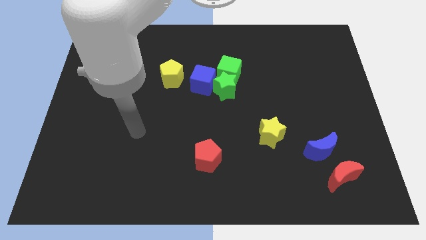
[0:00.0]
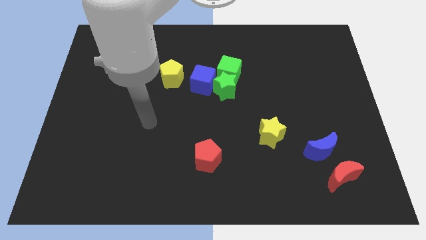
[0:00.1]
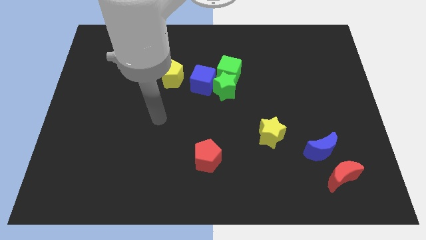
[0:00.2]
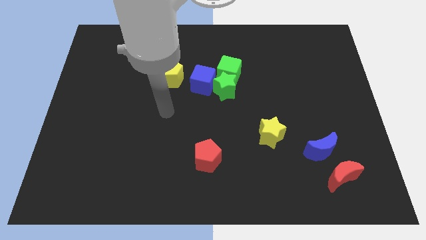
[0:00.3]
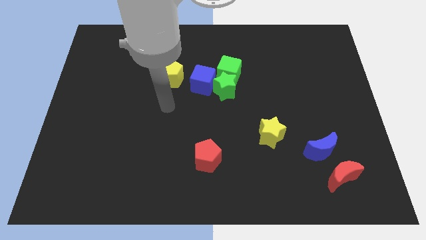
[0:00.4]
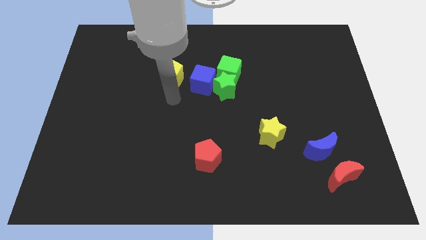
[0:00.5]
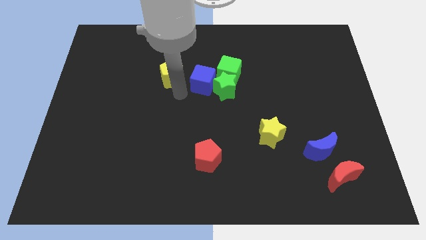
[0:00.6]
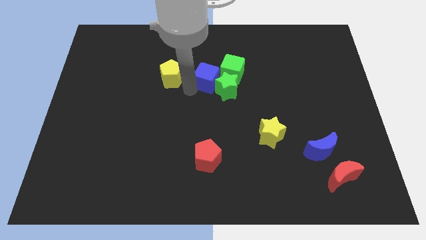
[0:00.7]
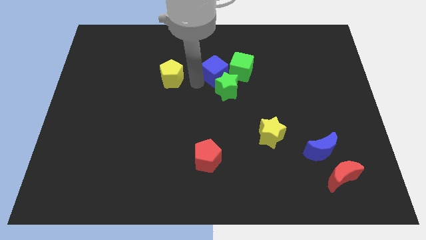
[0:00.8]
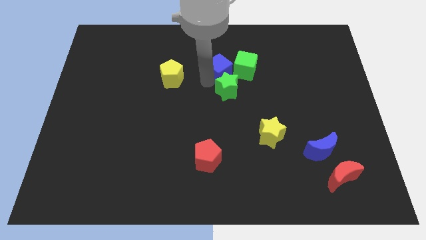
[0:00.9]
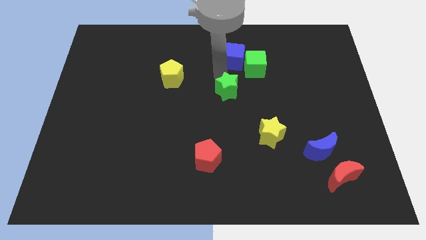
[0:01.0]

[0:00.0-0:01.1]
pull the green star apart from the green cube and blue cube

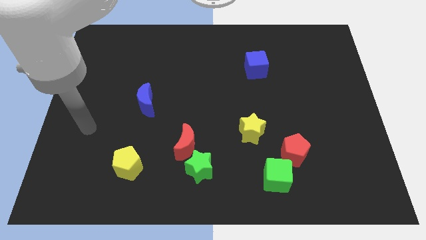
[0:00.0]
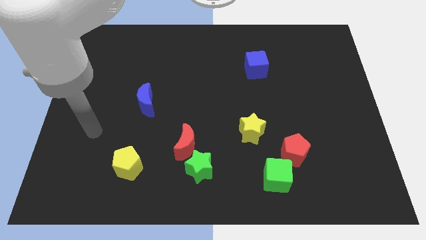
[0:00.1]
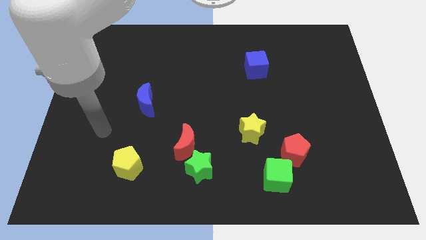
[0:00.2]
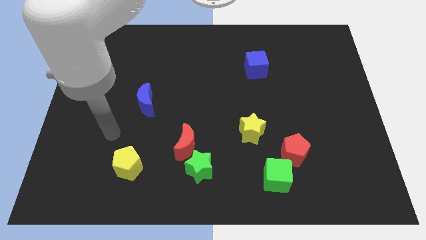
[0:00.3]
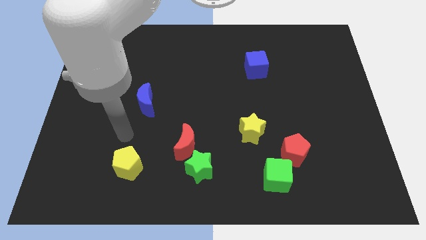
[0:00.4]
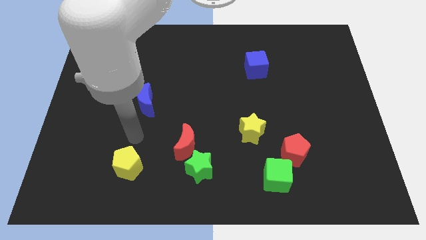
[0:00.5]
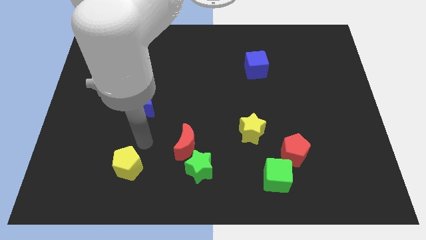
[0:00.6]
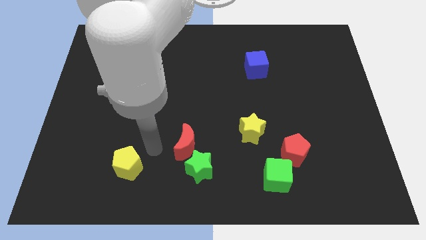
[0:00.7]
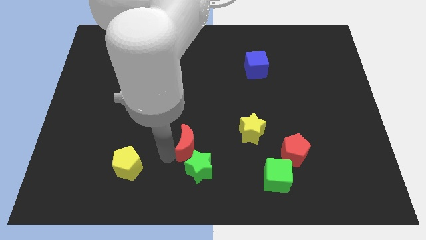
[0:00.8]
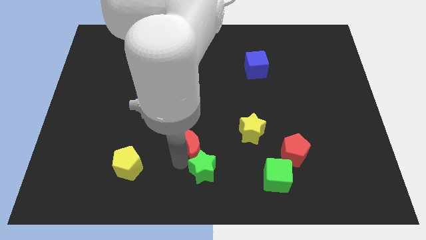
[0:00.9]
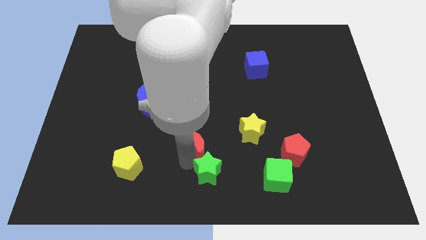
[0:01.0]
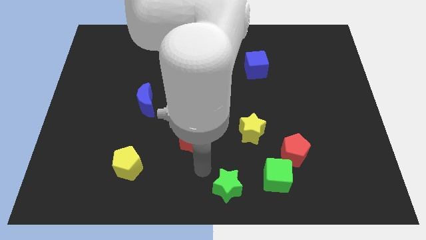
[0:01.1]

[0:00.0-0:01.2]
move the red moon away from the green star

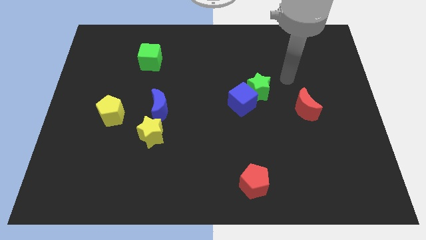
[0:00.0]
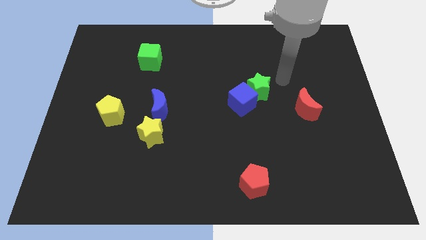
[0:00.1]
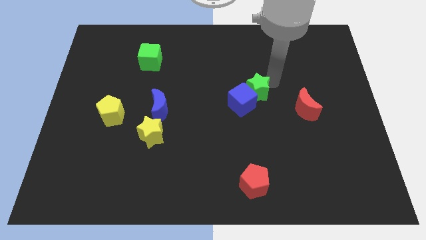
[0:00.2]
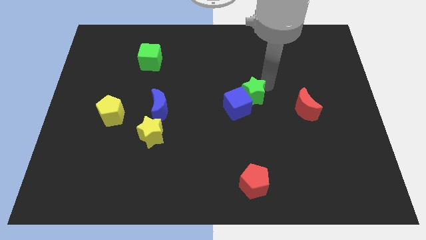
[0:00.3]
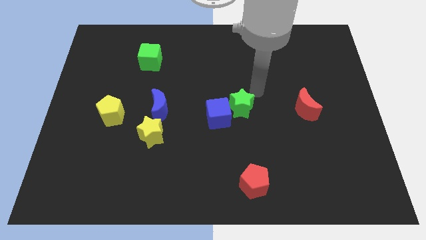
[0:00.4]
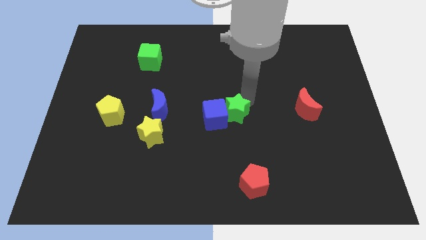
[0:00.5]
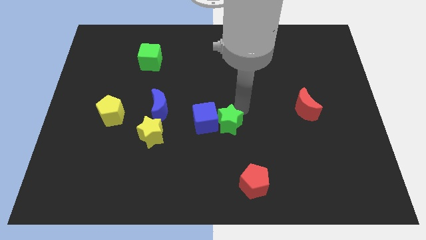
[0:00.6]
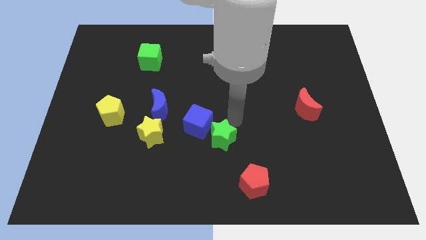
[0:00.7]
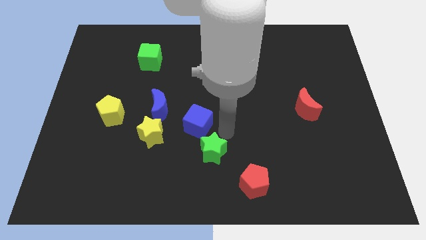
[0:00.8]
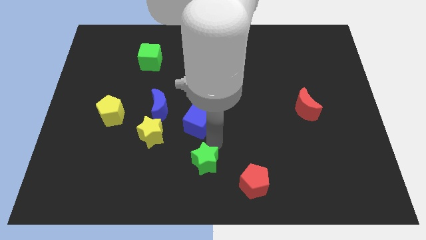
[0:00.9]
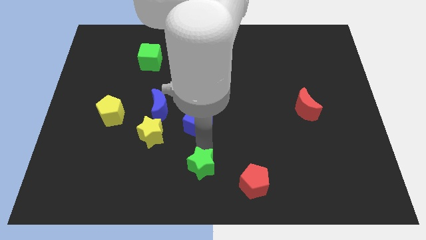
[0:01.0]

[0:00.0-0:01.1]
pull the blue cube apart from the green star

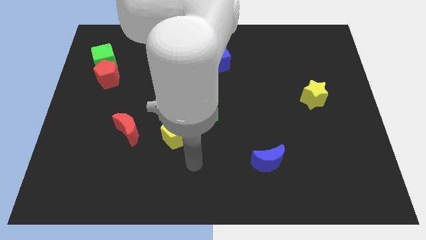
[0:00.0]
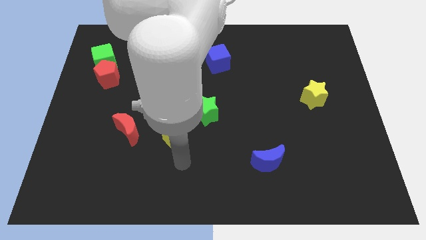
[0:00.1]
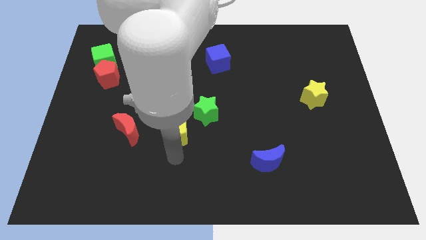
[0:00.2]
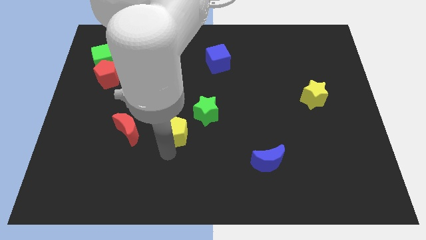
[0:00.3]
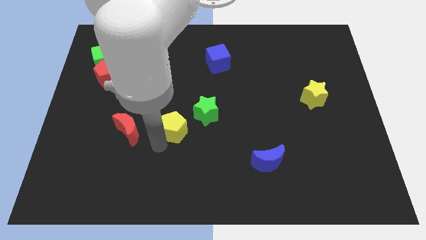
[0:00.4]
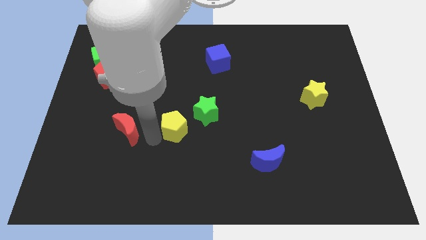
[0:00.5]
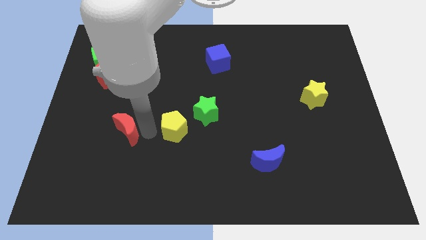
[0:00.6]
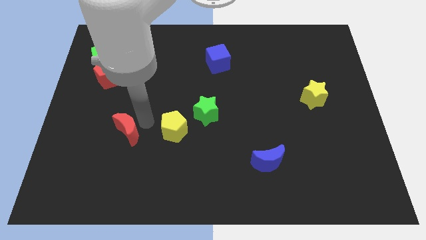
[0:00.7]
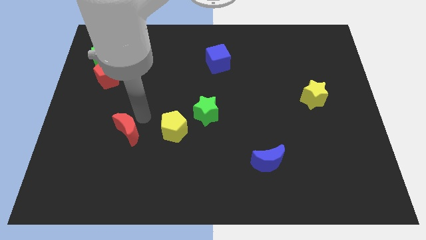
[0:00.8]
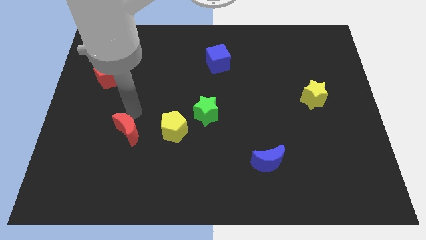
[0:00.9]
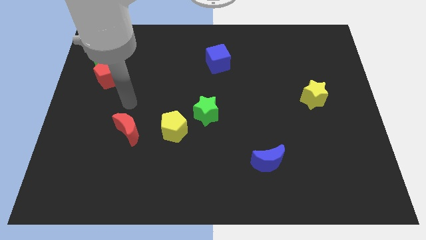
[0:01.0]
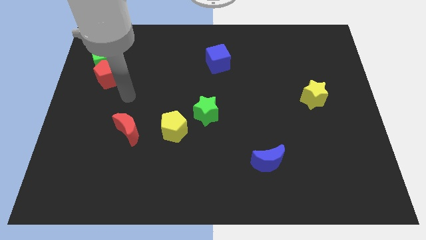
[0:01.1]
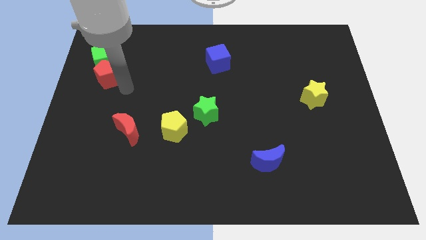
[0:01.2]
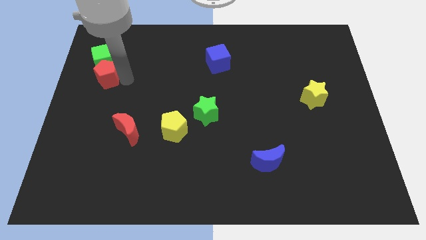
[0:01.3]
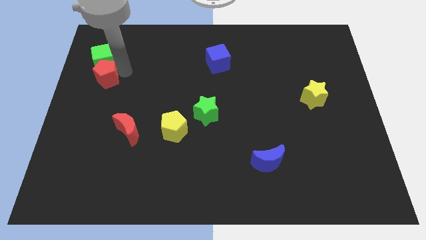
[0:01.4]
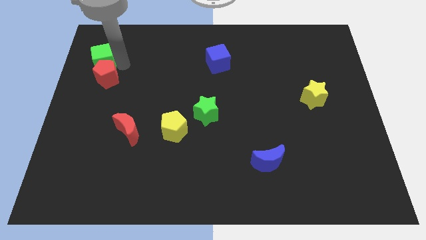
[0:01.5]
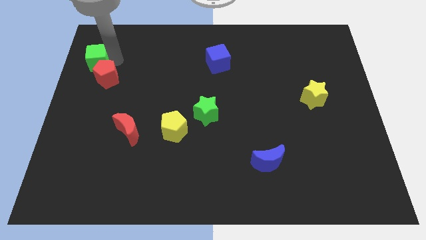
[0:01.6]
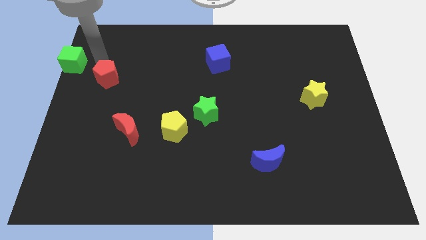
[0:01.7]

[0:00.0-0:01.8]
pull the red pentagon apart from the green cube

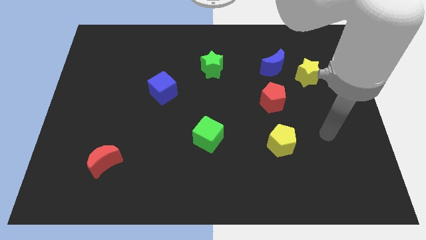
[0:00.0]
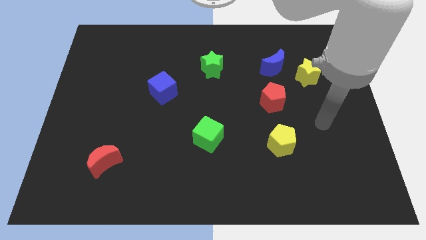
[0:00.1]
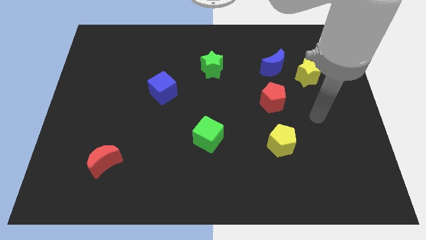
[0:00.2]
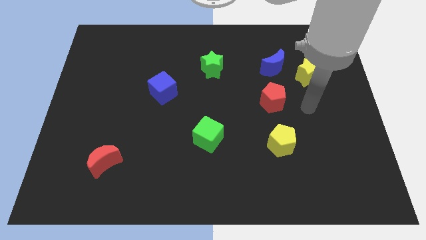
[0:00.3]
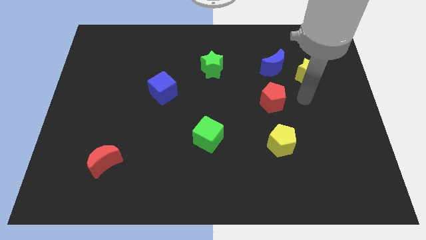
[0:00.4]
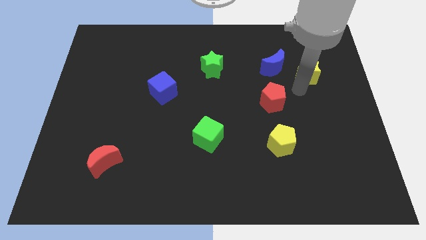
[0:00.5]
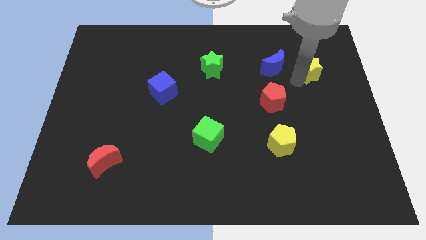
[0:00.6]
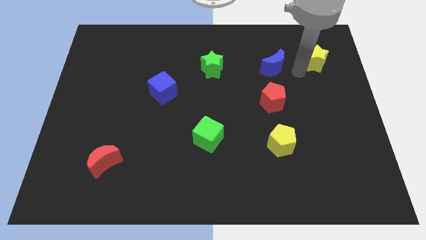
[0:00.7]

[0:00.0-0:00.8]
move the blue moon away from the yellow star

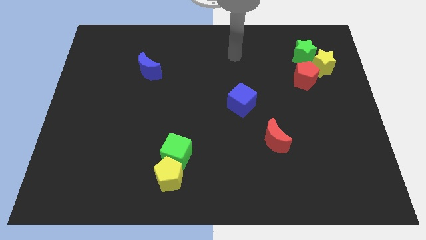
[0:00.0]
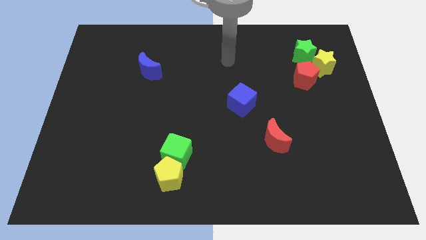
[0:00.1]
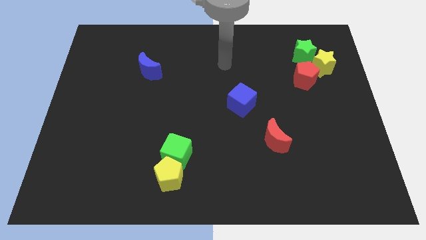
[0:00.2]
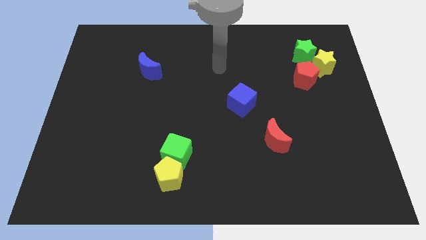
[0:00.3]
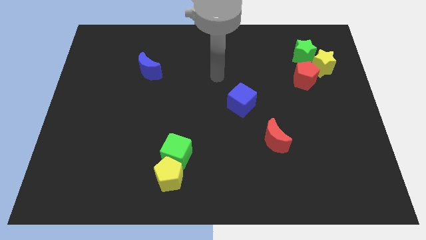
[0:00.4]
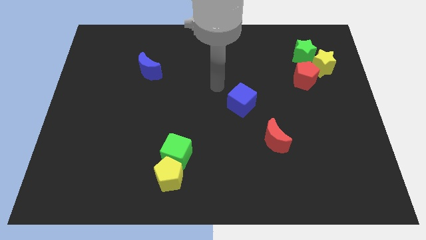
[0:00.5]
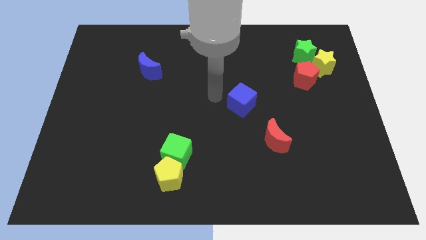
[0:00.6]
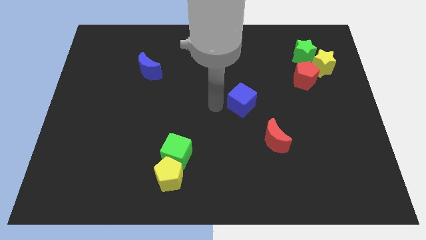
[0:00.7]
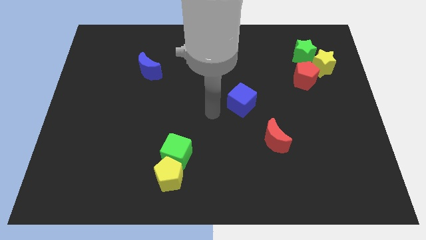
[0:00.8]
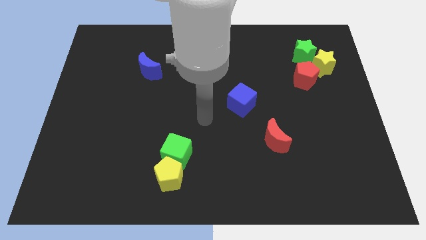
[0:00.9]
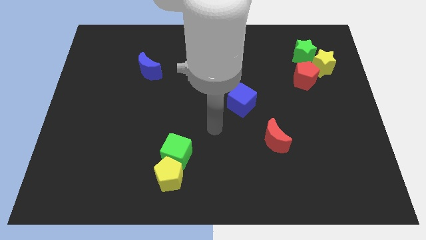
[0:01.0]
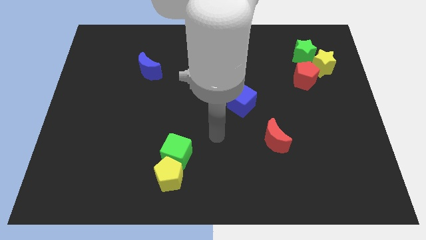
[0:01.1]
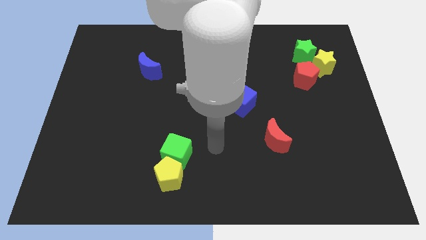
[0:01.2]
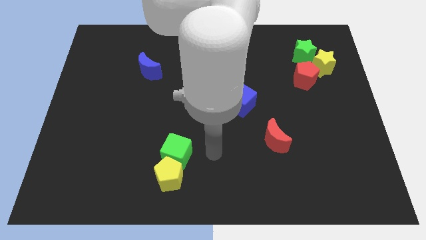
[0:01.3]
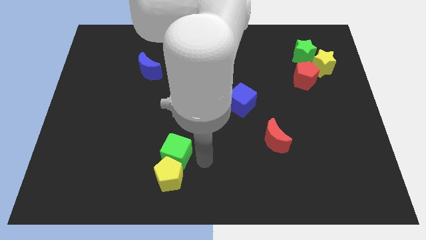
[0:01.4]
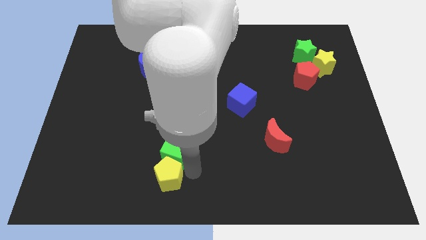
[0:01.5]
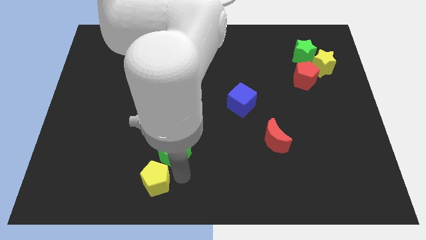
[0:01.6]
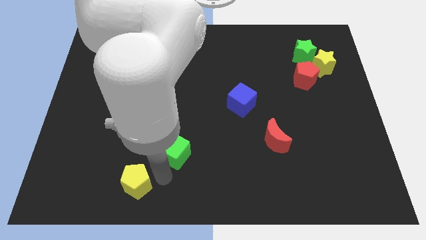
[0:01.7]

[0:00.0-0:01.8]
separate the green cube from the yellow pentagon

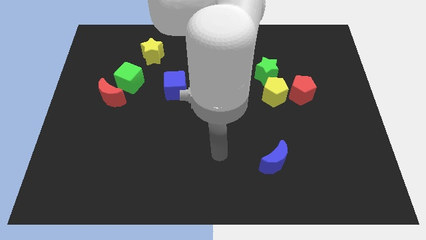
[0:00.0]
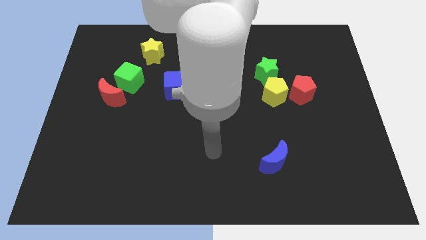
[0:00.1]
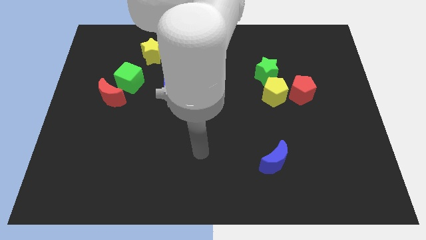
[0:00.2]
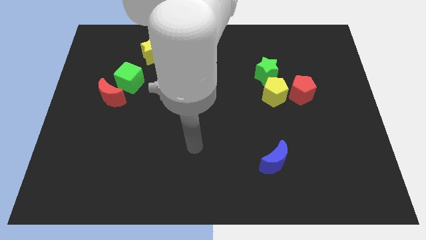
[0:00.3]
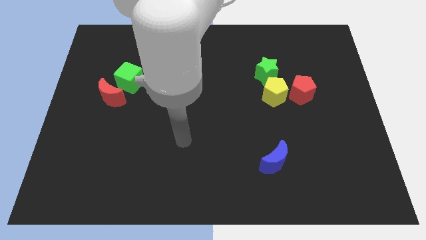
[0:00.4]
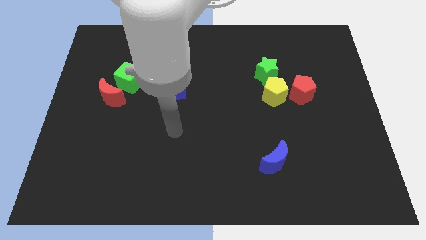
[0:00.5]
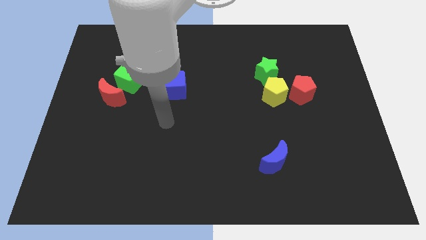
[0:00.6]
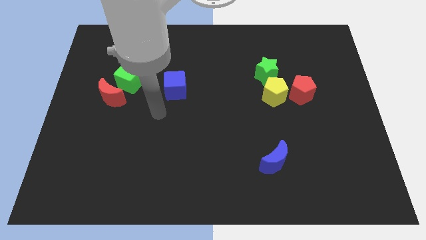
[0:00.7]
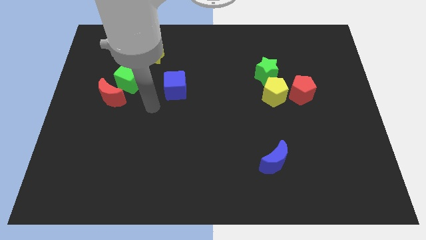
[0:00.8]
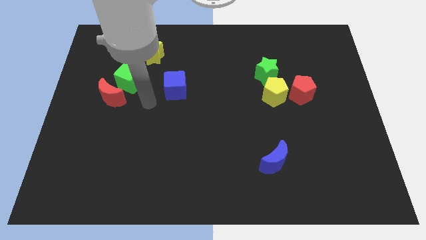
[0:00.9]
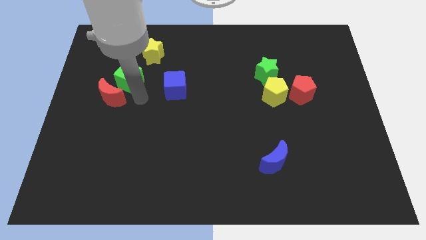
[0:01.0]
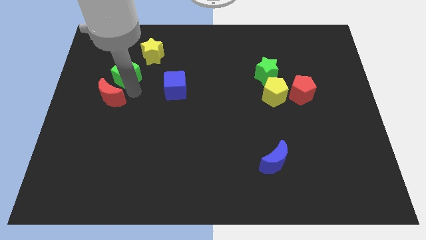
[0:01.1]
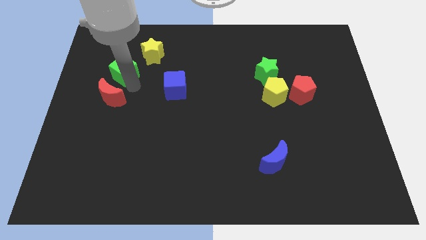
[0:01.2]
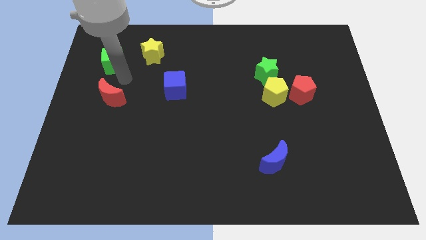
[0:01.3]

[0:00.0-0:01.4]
separate the red moon from the green cube

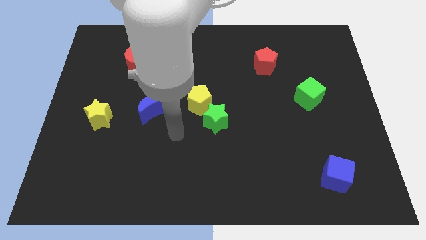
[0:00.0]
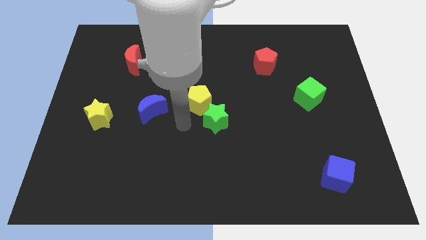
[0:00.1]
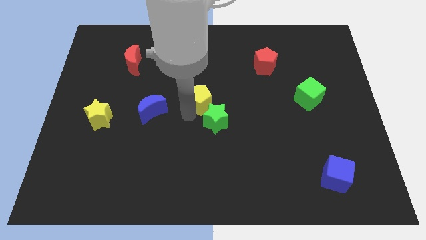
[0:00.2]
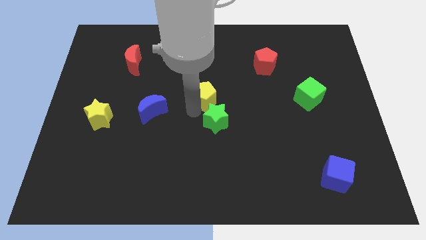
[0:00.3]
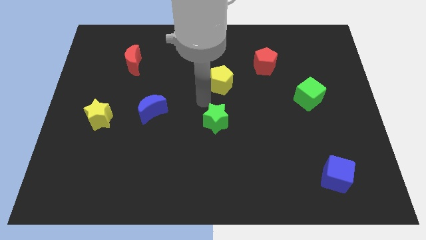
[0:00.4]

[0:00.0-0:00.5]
separate the green star from the yellow pentagon
